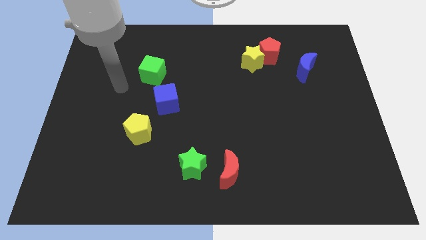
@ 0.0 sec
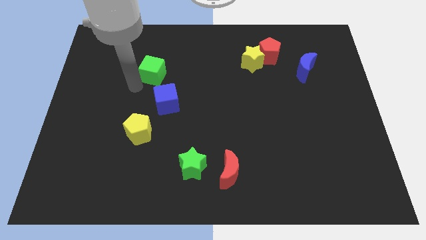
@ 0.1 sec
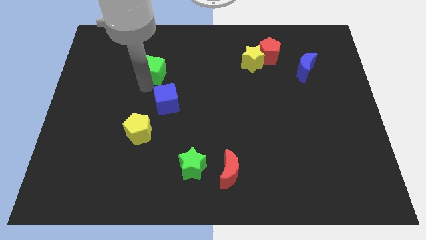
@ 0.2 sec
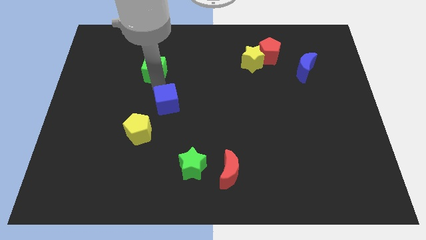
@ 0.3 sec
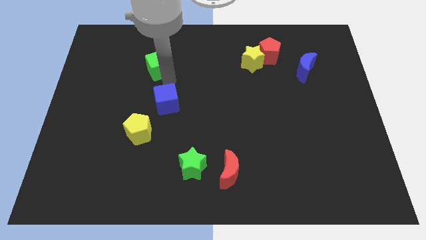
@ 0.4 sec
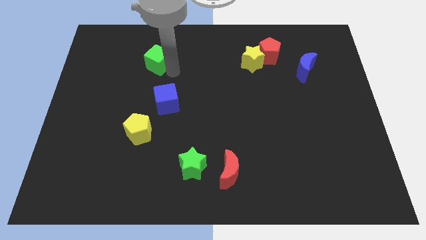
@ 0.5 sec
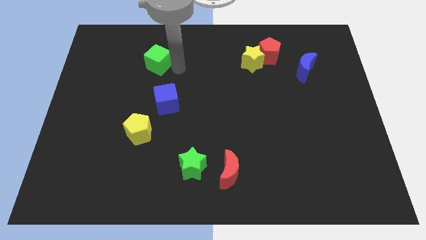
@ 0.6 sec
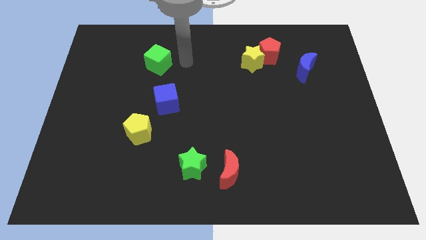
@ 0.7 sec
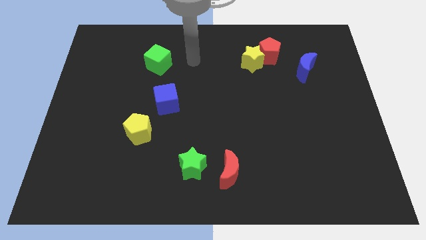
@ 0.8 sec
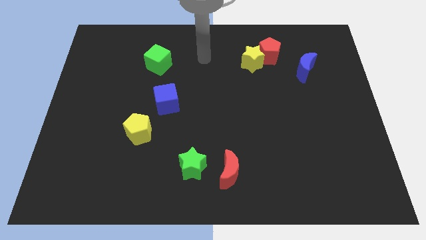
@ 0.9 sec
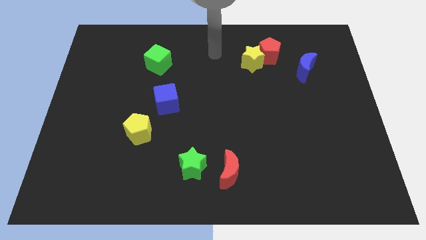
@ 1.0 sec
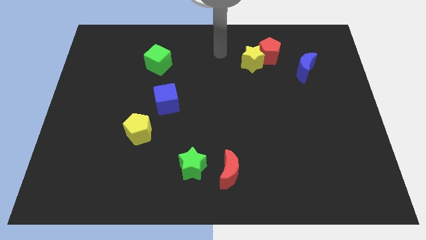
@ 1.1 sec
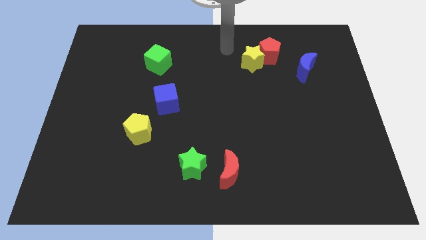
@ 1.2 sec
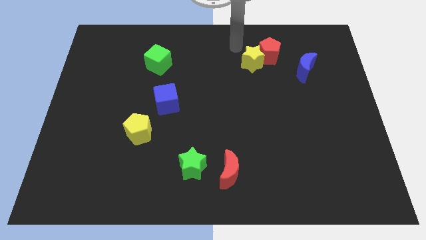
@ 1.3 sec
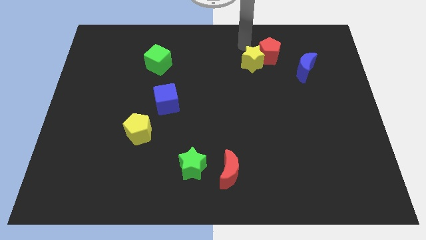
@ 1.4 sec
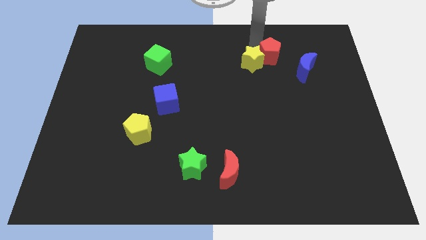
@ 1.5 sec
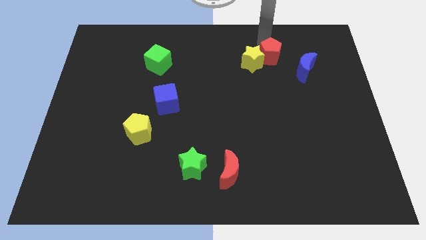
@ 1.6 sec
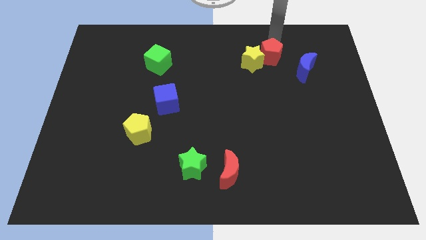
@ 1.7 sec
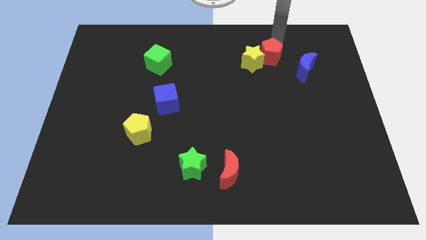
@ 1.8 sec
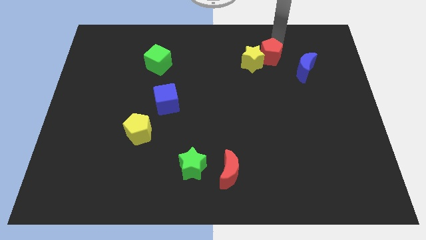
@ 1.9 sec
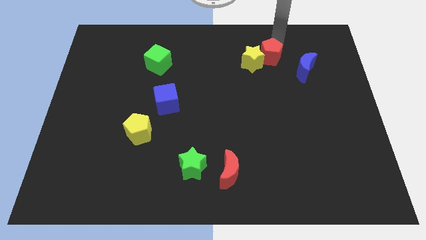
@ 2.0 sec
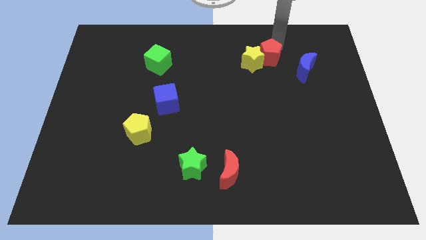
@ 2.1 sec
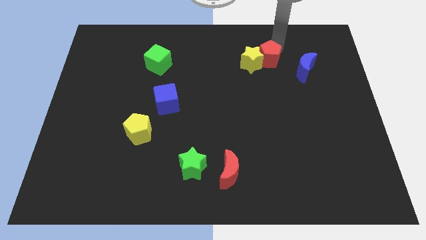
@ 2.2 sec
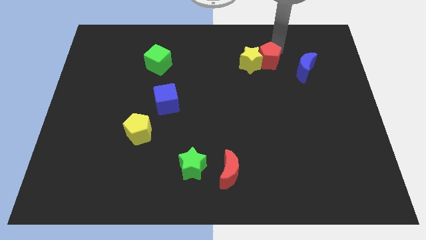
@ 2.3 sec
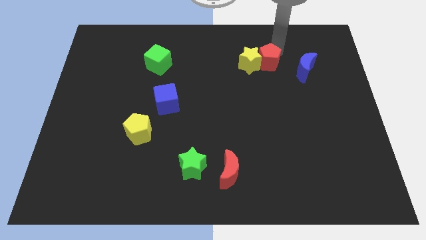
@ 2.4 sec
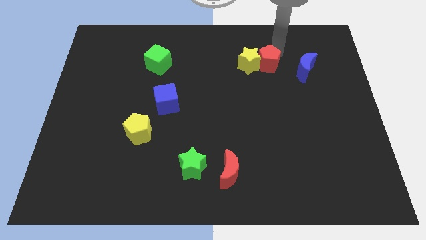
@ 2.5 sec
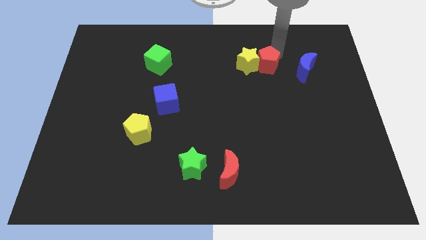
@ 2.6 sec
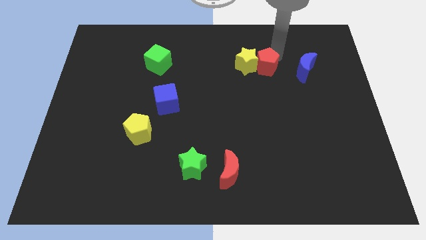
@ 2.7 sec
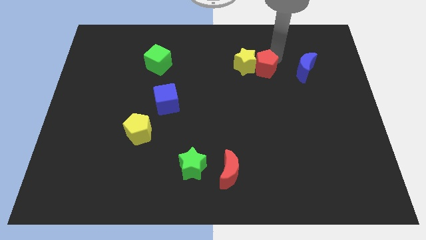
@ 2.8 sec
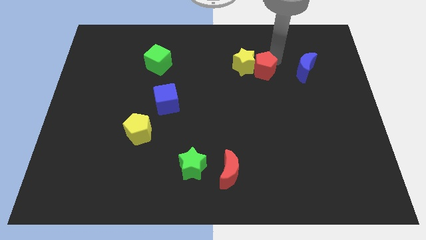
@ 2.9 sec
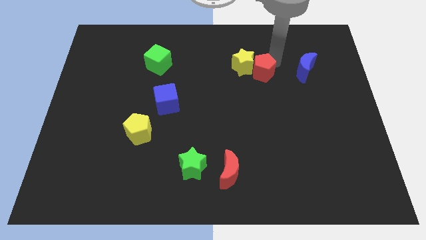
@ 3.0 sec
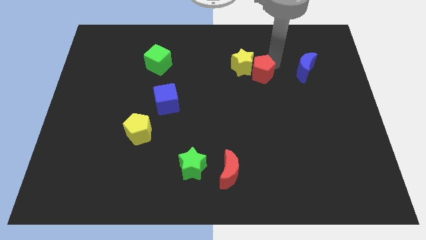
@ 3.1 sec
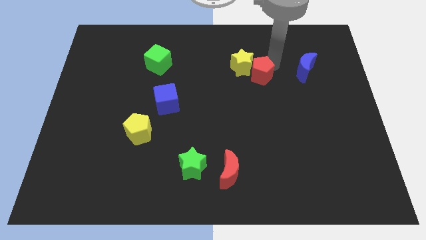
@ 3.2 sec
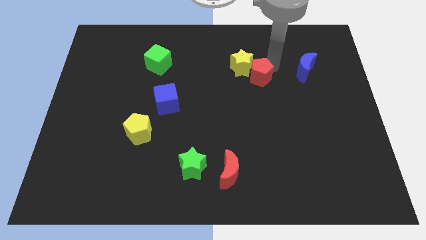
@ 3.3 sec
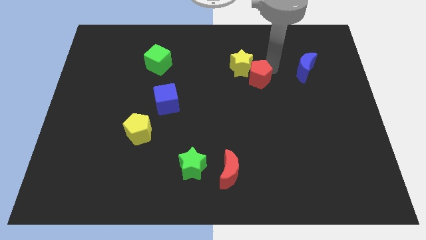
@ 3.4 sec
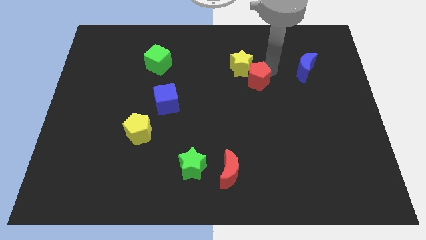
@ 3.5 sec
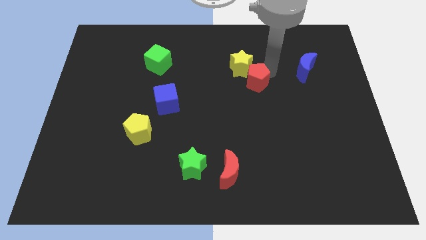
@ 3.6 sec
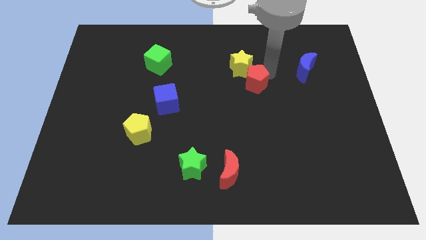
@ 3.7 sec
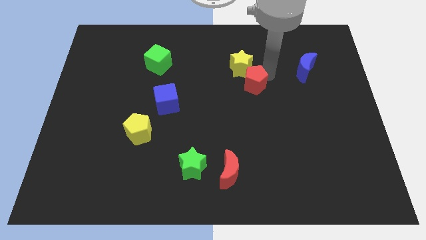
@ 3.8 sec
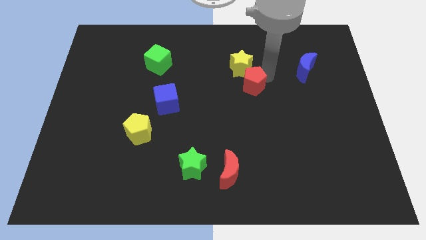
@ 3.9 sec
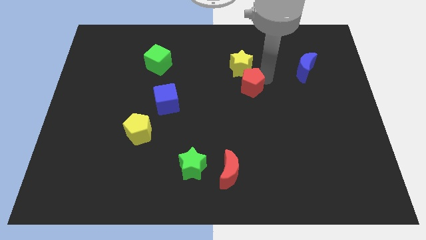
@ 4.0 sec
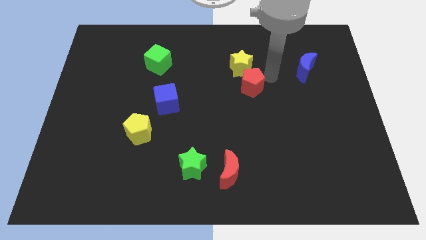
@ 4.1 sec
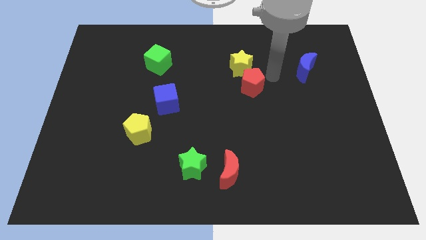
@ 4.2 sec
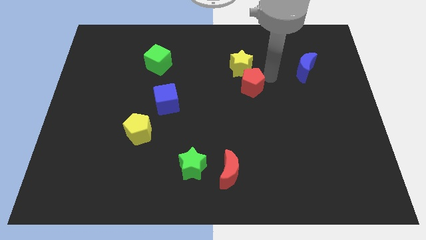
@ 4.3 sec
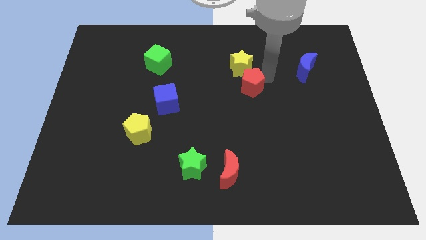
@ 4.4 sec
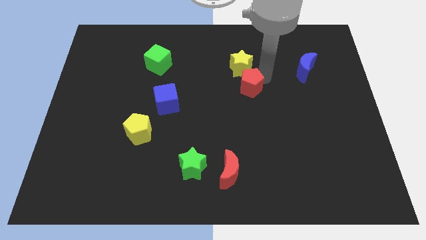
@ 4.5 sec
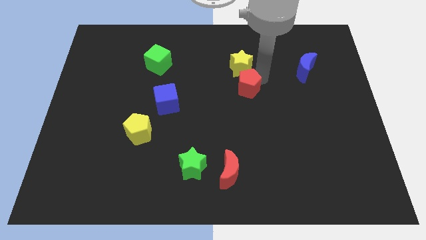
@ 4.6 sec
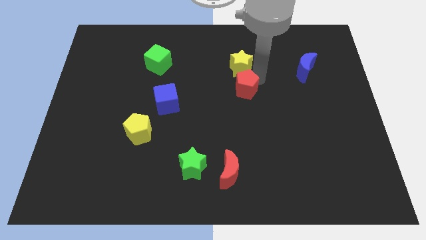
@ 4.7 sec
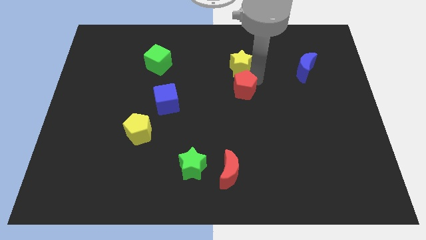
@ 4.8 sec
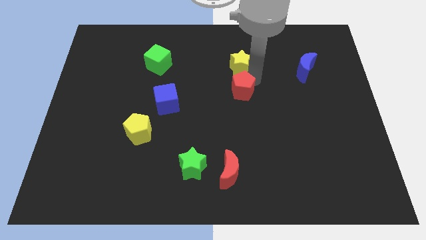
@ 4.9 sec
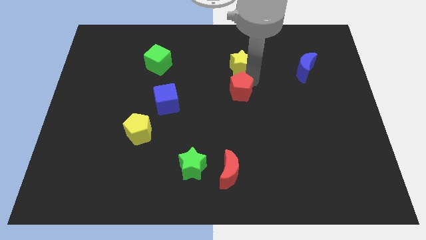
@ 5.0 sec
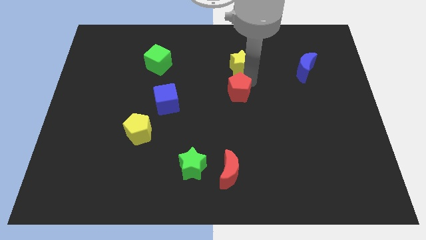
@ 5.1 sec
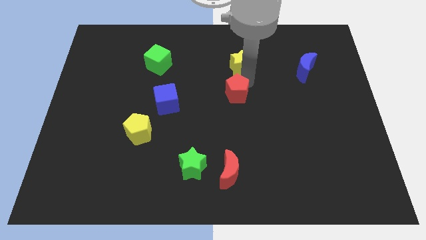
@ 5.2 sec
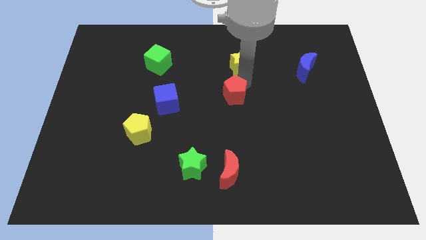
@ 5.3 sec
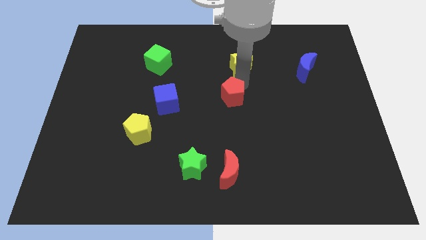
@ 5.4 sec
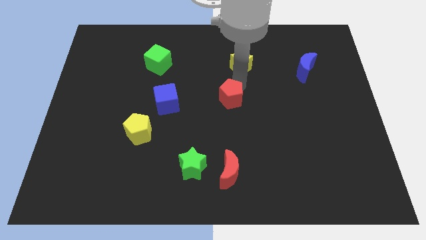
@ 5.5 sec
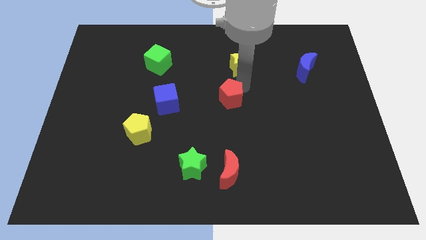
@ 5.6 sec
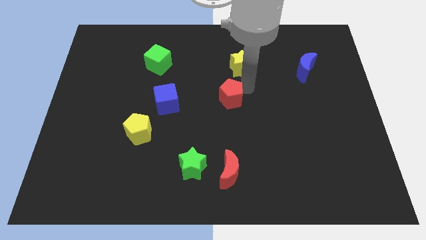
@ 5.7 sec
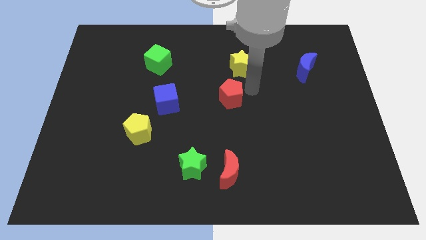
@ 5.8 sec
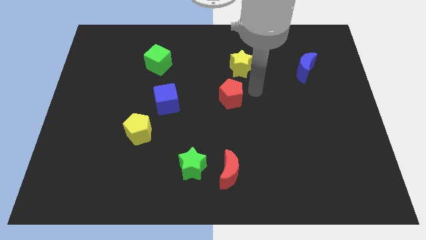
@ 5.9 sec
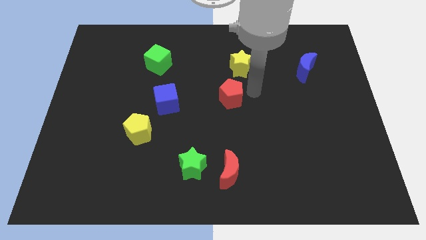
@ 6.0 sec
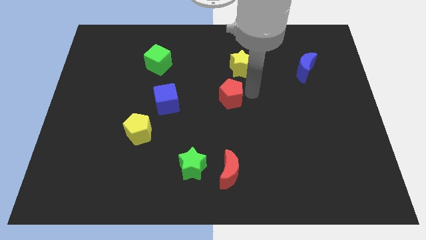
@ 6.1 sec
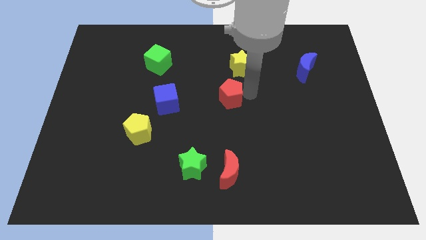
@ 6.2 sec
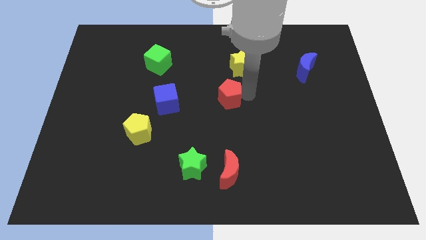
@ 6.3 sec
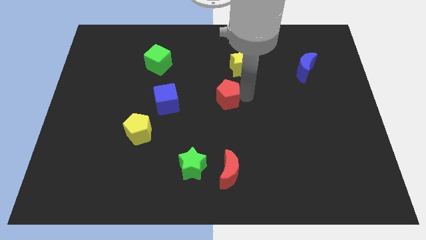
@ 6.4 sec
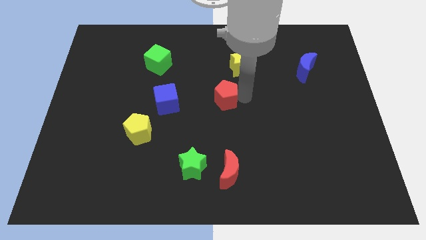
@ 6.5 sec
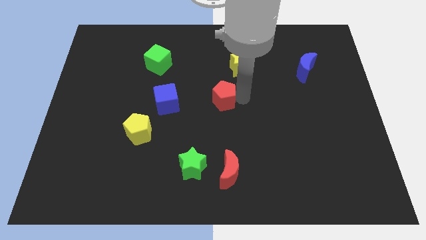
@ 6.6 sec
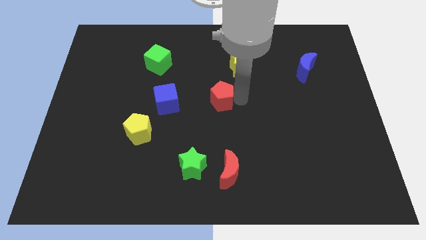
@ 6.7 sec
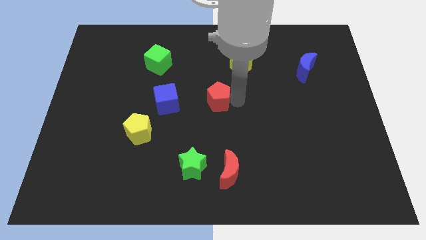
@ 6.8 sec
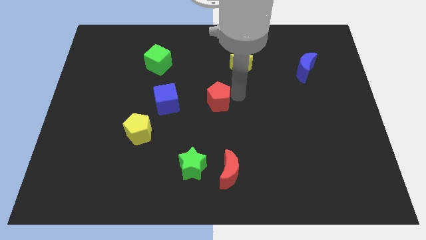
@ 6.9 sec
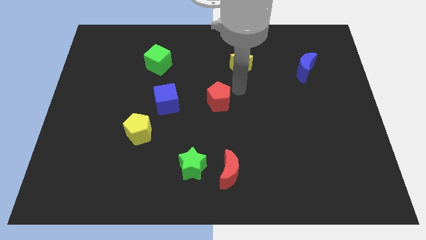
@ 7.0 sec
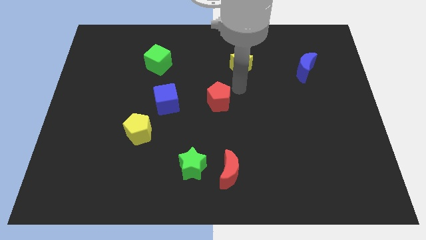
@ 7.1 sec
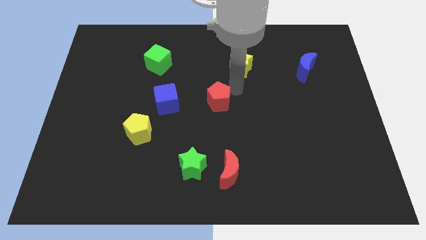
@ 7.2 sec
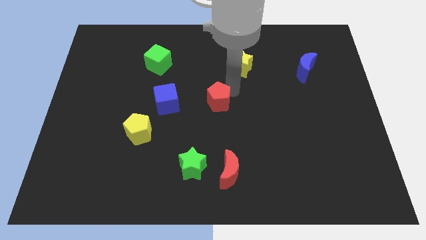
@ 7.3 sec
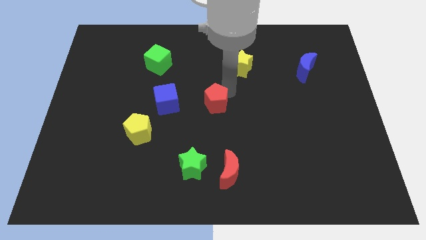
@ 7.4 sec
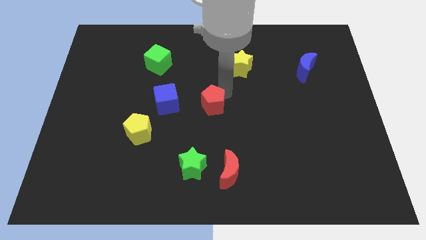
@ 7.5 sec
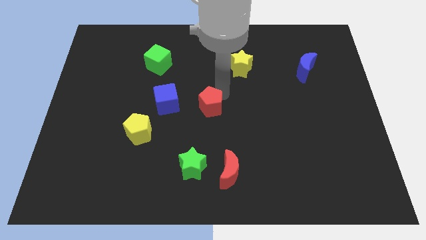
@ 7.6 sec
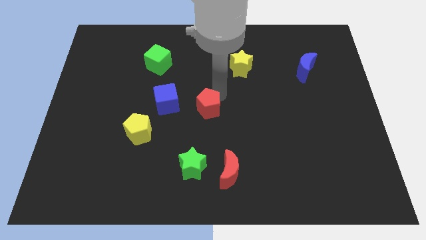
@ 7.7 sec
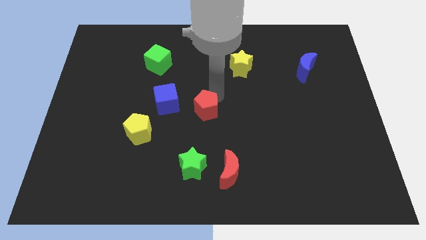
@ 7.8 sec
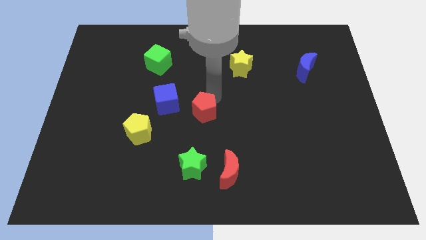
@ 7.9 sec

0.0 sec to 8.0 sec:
push the red pentagon diagonally down and to the right of the blue cube
